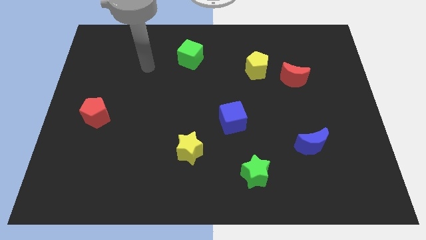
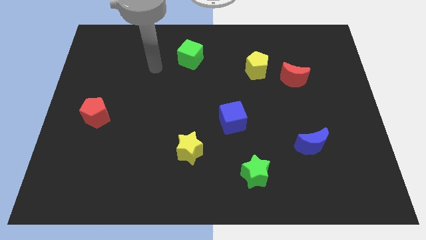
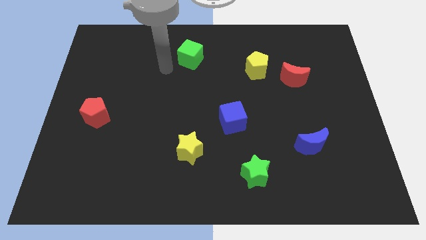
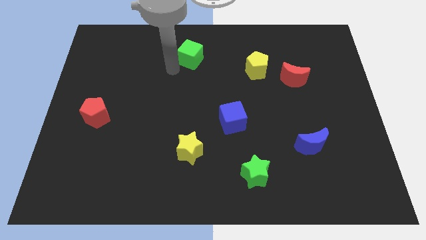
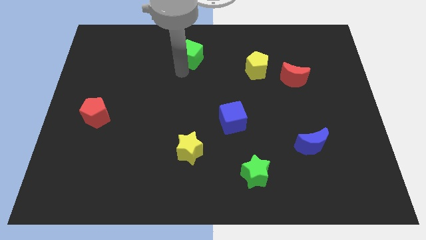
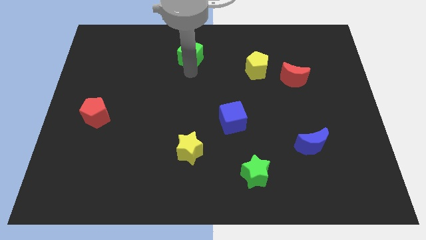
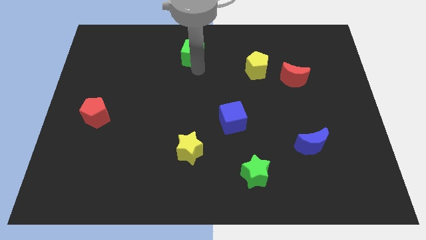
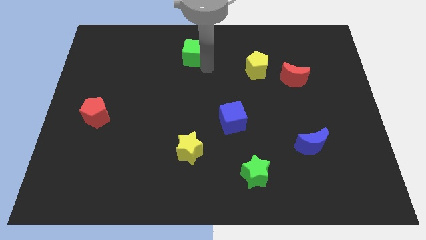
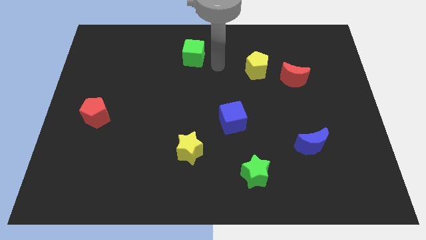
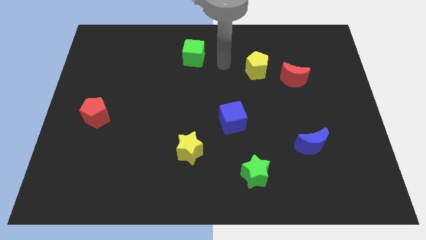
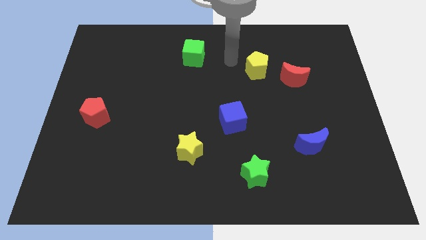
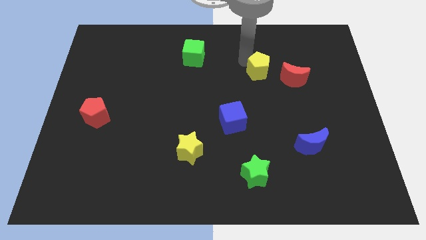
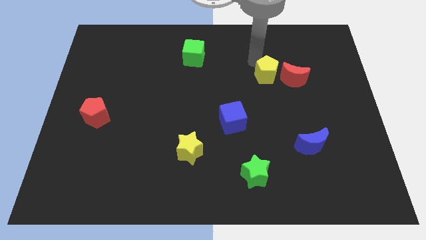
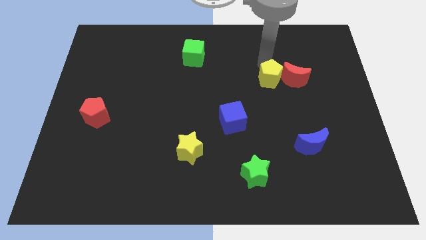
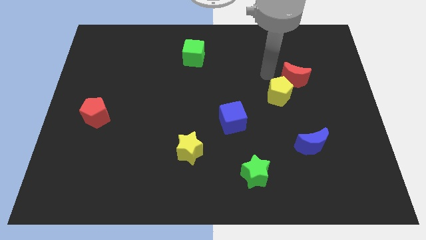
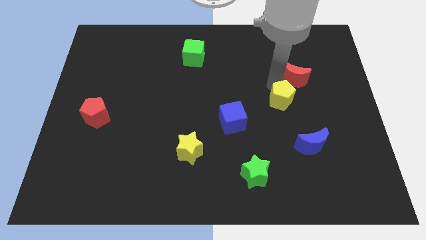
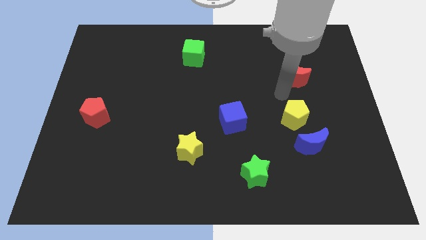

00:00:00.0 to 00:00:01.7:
move the red moon away from the yellow pentagon

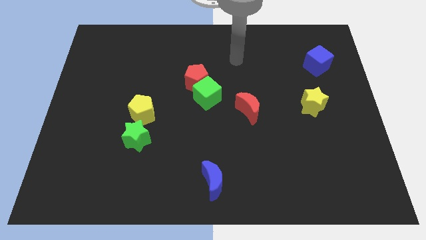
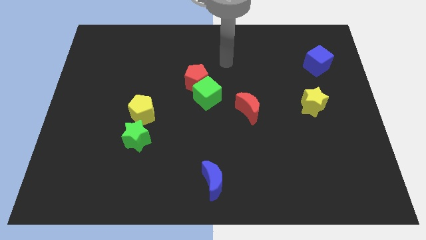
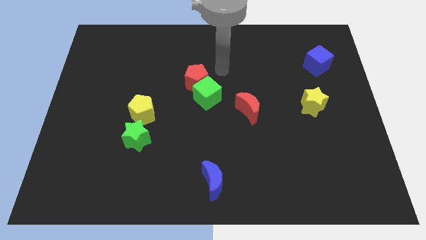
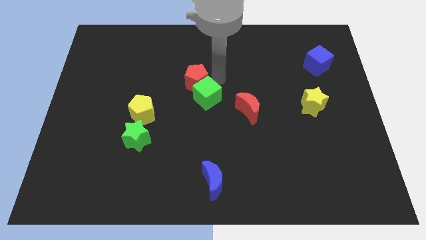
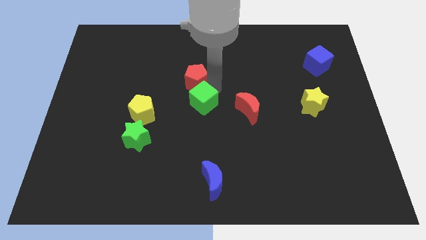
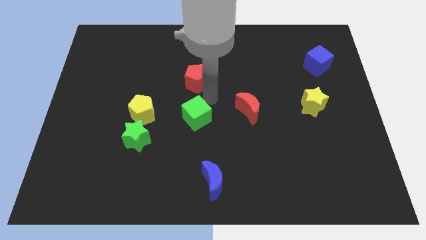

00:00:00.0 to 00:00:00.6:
separate the red pentagon from the green cube

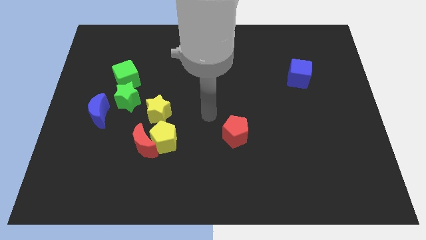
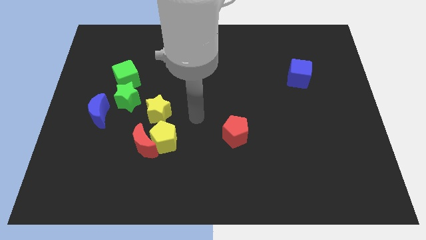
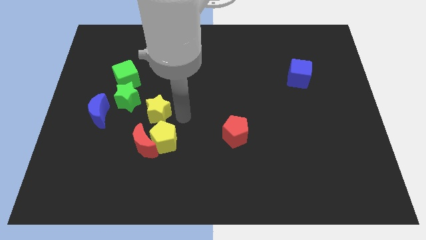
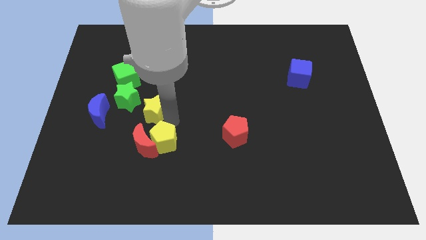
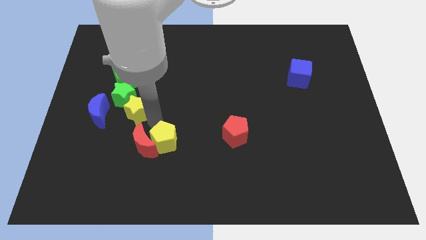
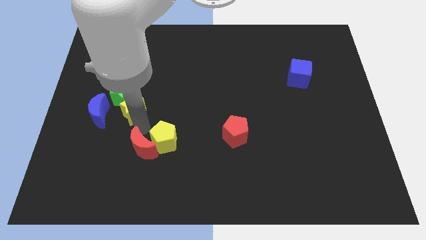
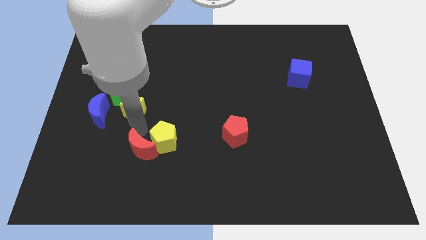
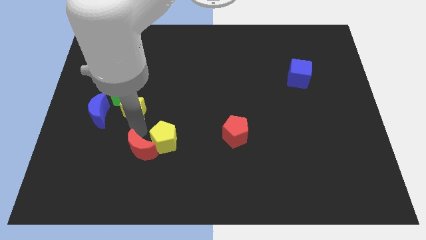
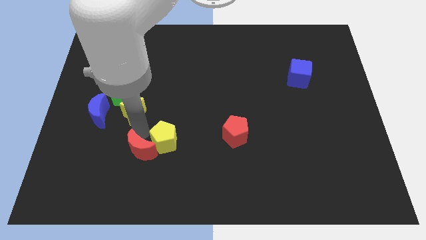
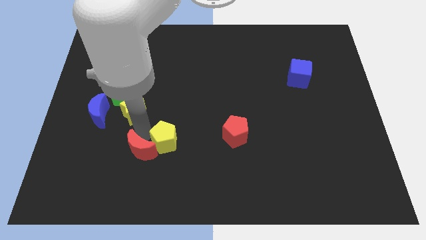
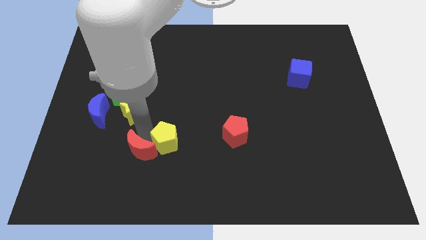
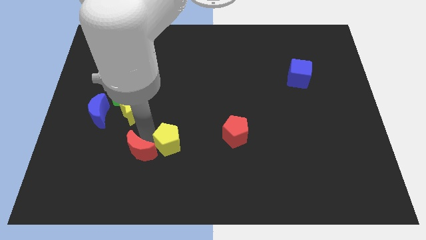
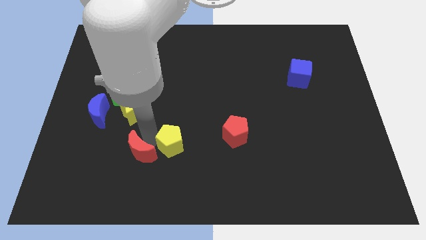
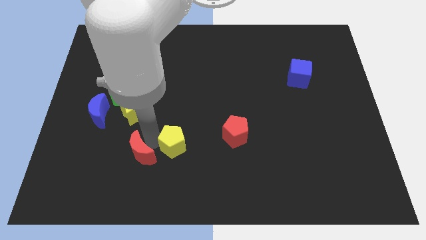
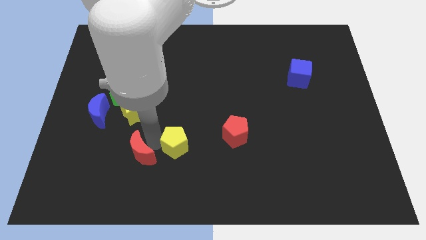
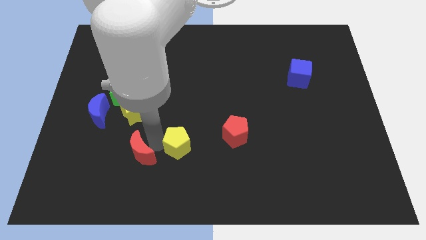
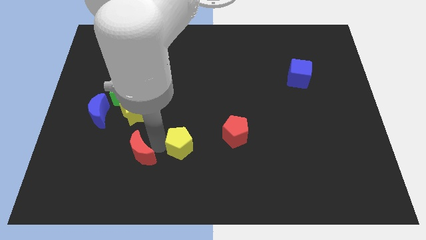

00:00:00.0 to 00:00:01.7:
move the yellow pentagon away from the red moon and yellow star

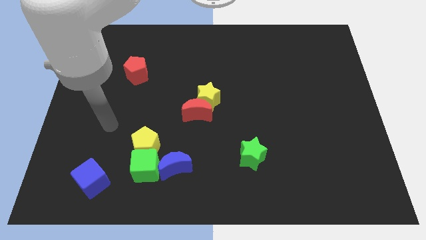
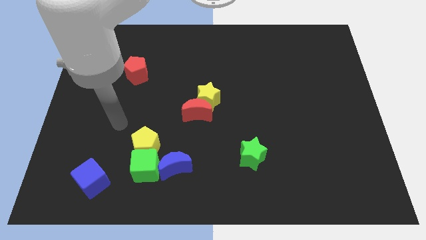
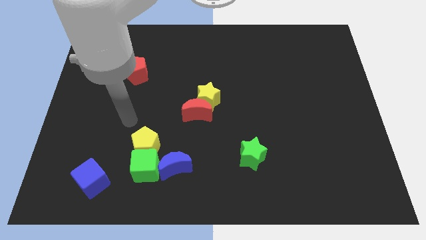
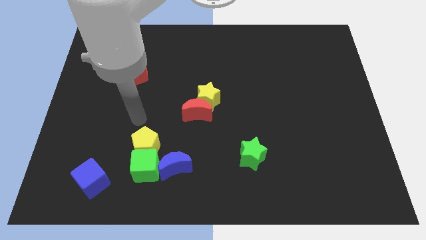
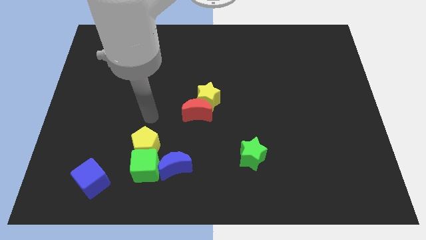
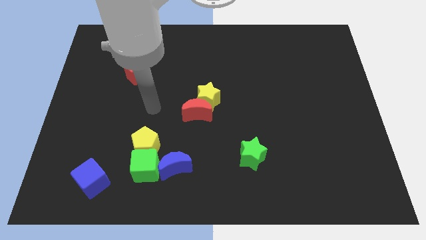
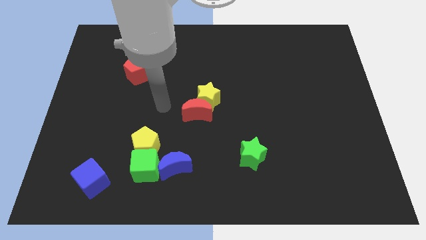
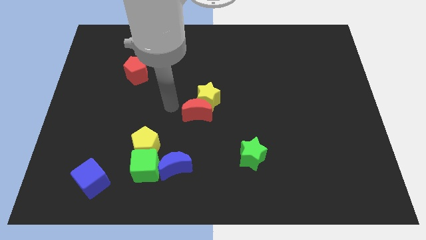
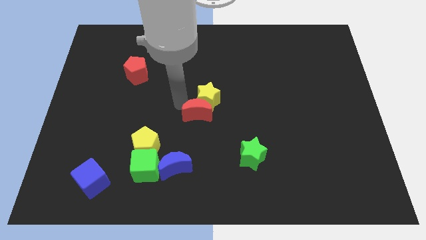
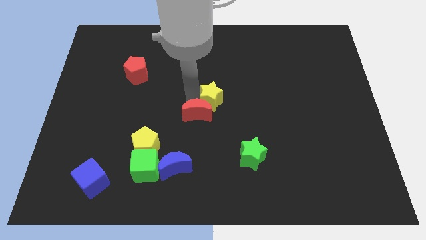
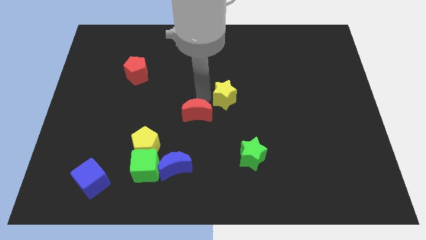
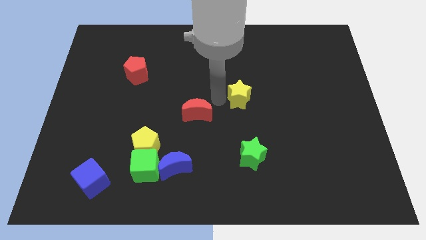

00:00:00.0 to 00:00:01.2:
pull the red moon apart from the yellow star

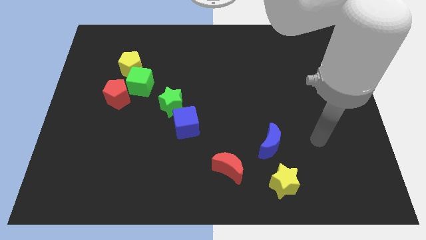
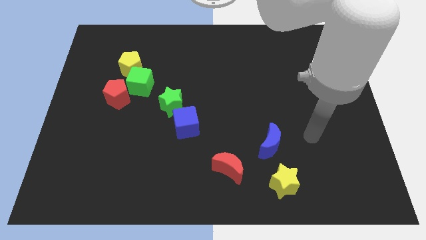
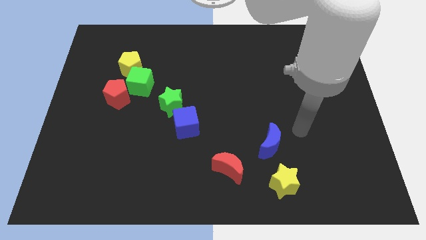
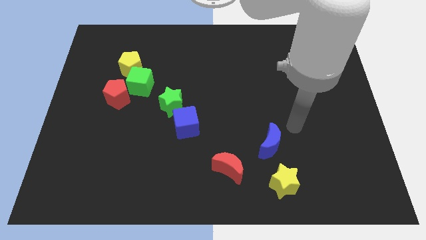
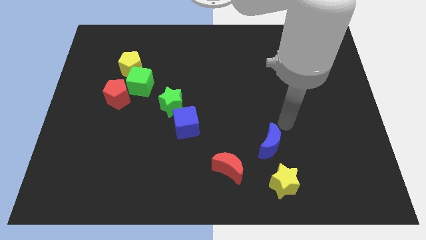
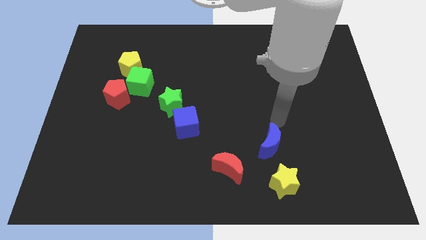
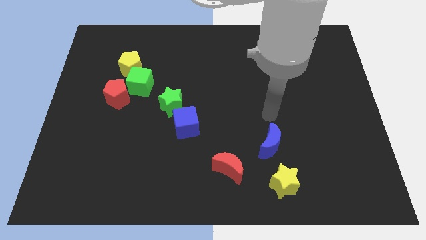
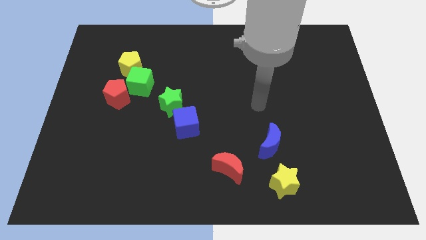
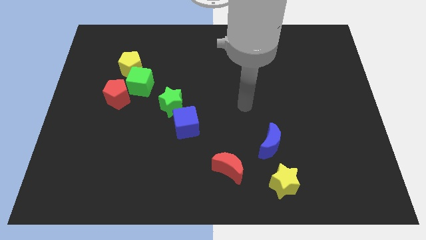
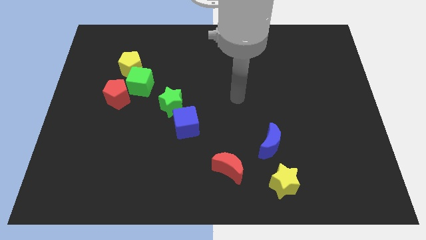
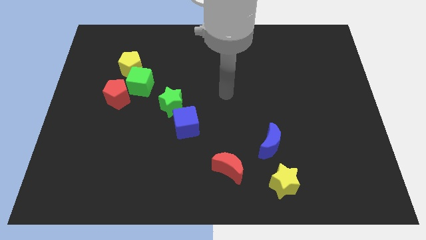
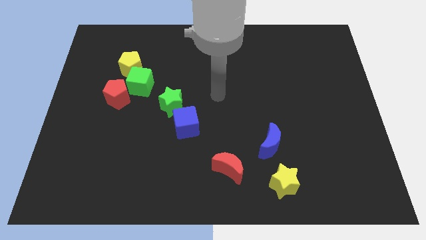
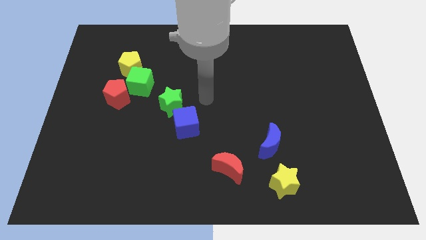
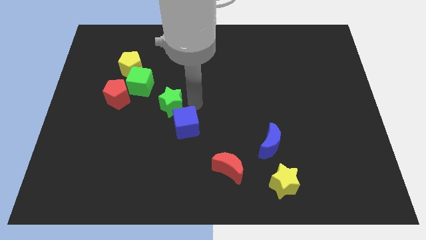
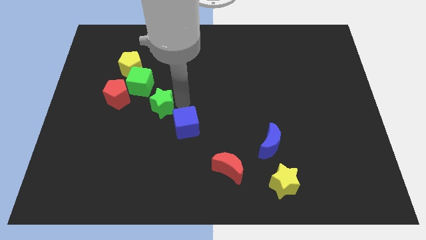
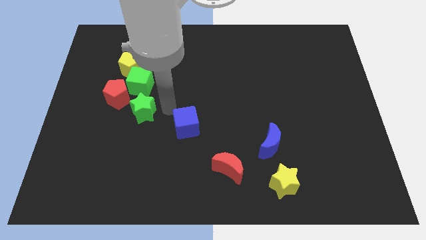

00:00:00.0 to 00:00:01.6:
move the blue cube away from the green star

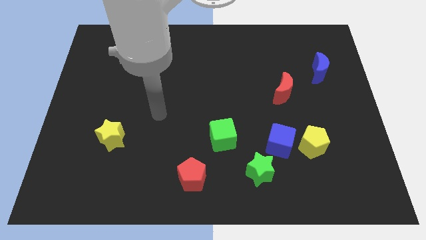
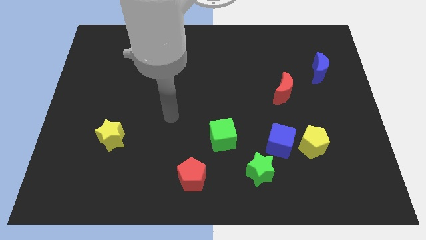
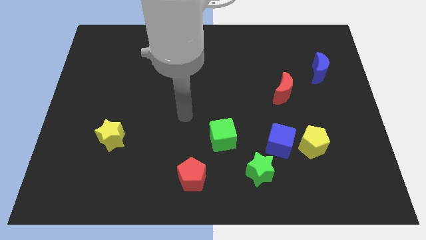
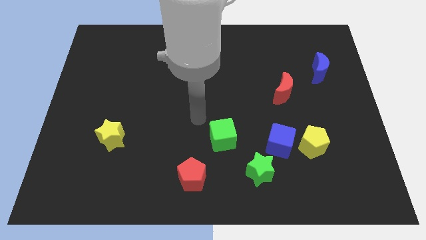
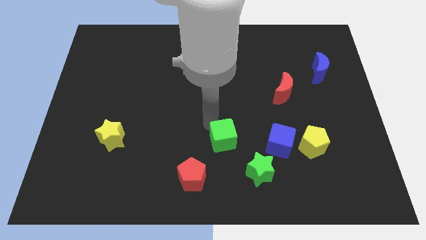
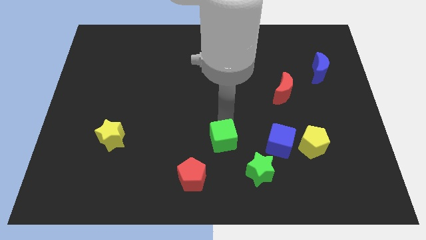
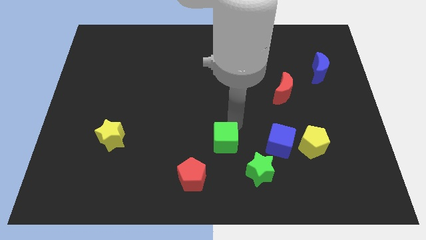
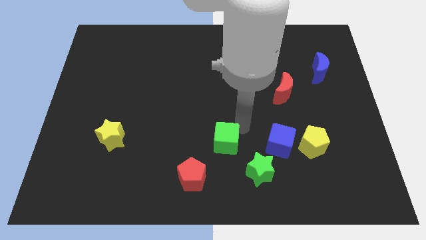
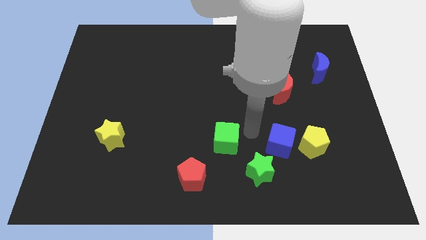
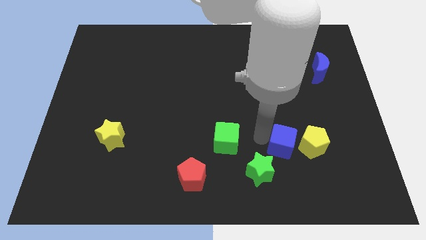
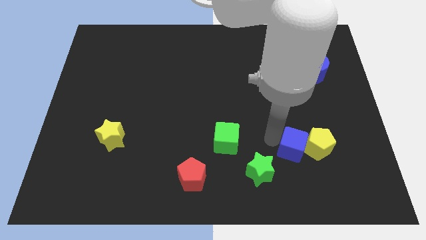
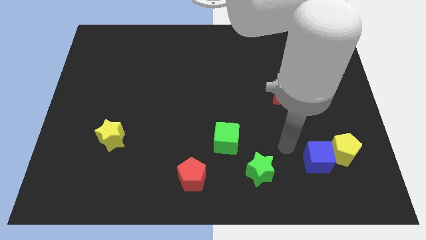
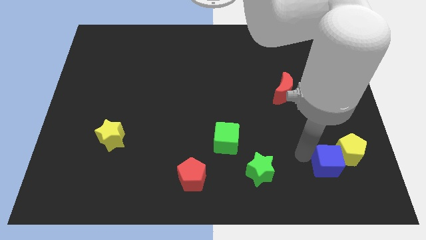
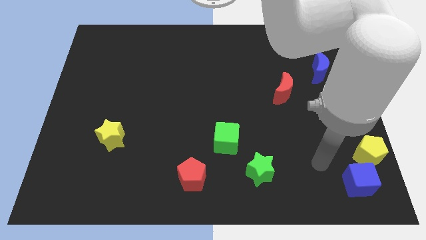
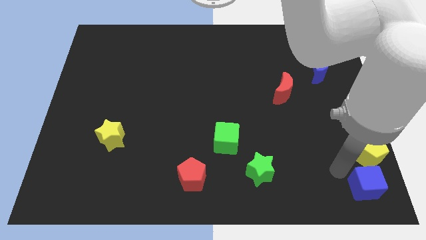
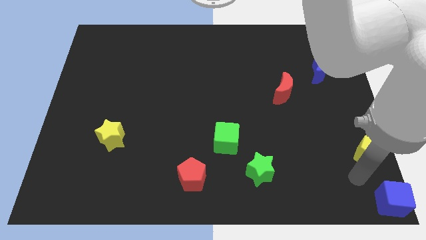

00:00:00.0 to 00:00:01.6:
pull the yellow pentagon apart from the blue cube

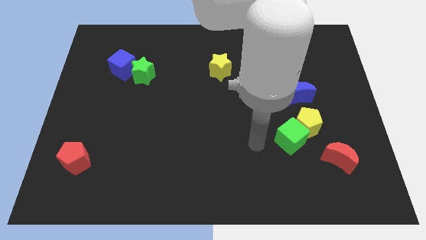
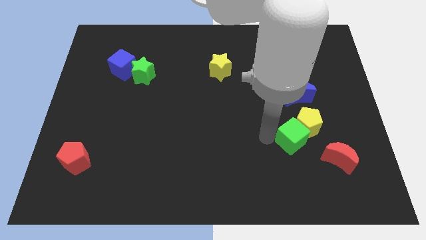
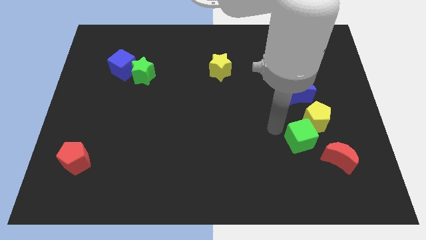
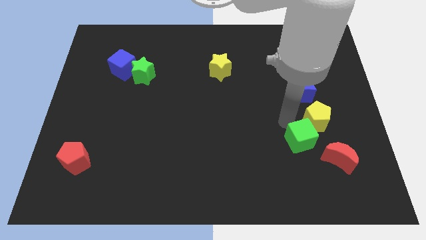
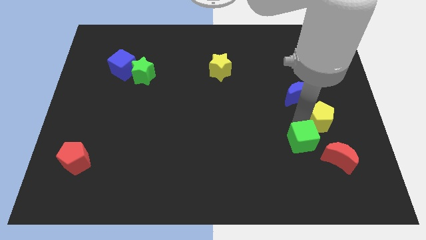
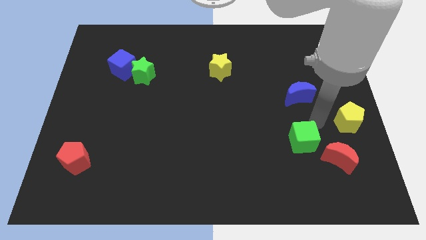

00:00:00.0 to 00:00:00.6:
pull the green cube apart from the yellow pentagon

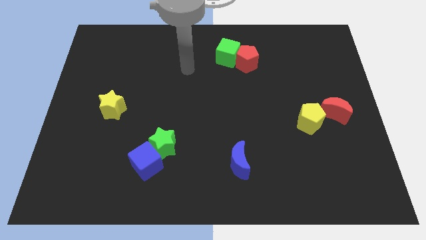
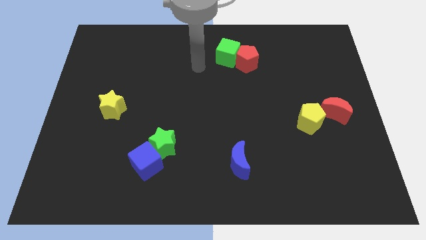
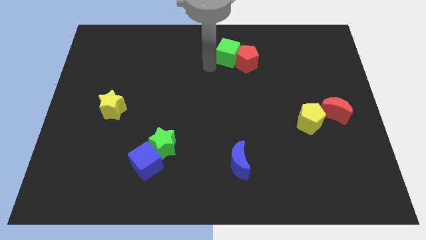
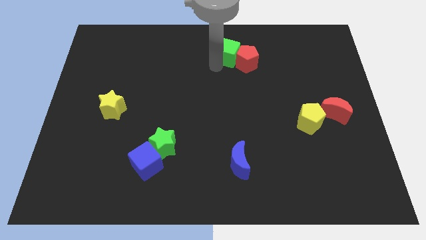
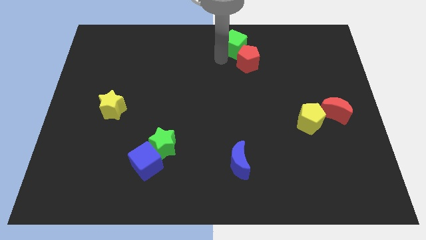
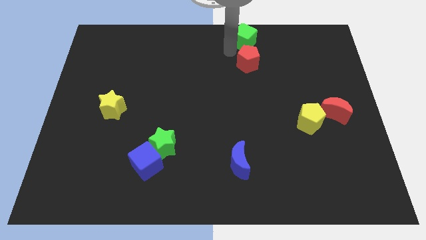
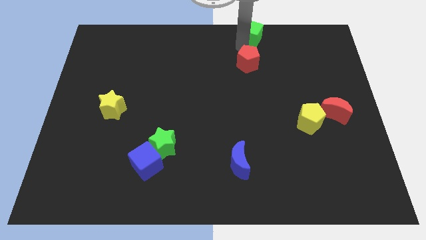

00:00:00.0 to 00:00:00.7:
pull the red pentagon apart from the green cube
